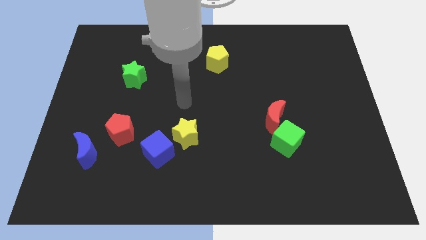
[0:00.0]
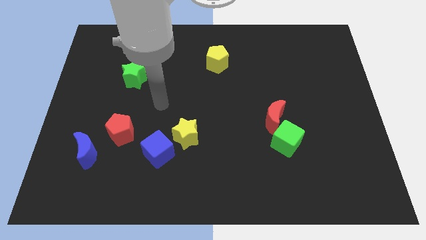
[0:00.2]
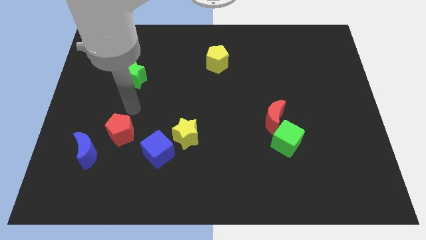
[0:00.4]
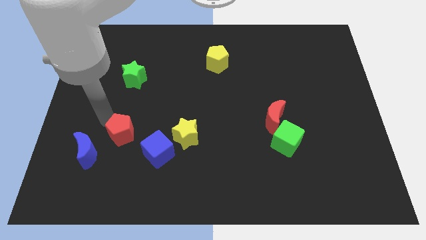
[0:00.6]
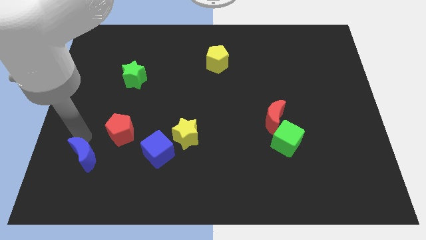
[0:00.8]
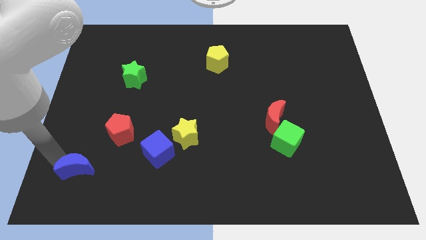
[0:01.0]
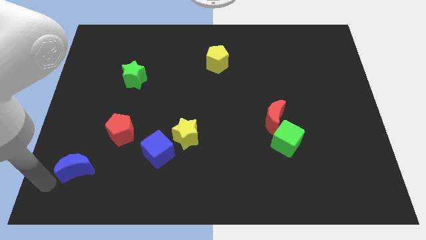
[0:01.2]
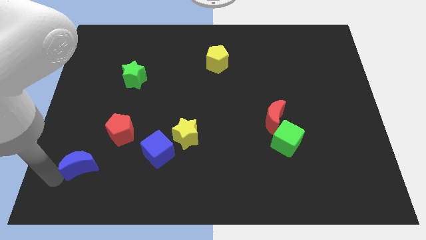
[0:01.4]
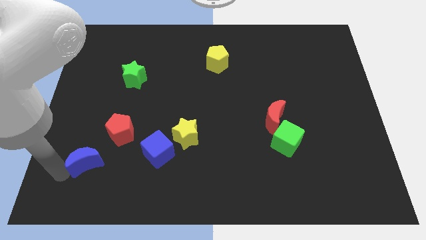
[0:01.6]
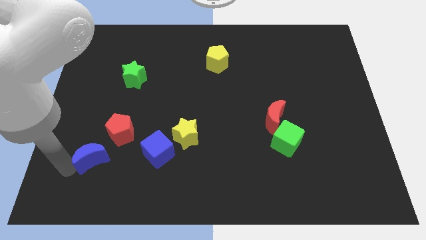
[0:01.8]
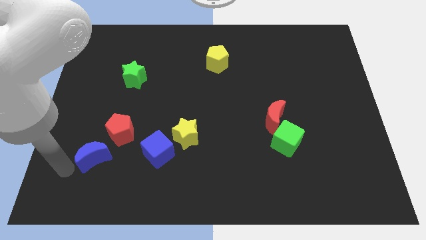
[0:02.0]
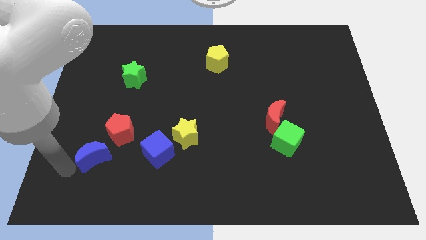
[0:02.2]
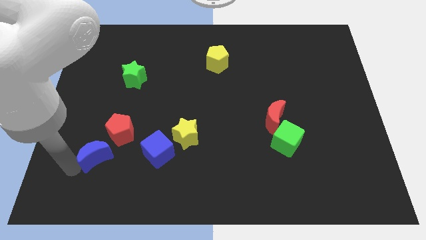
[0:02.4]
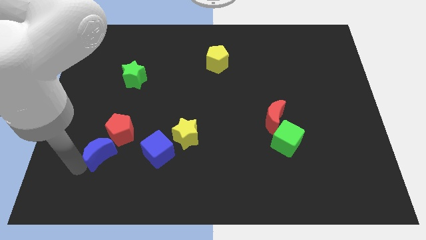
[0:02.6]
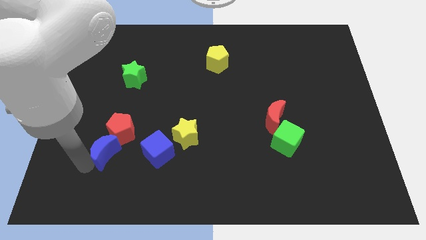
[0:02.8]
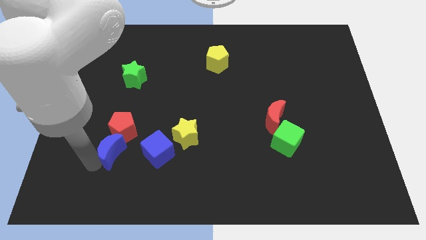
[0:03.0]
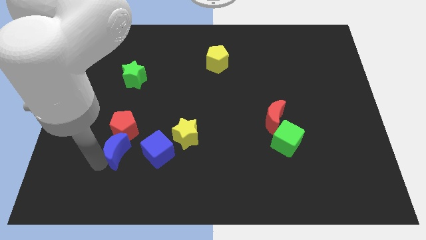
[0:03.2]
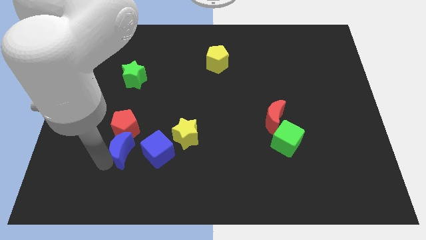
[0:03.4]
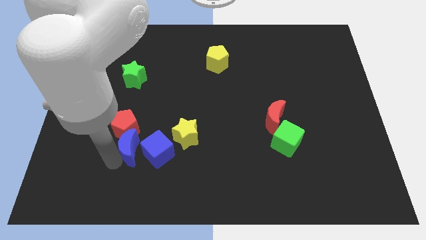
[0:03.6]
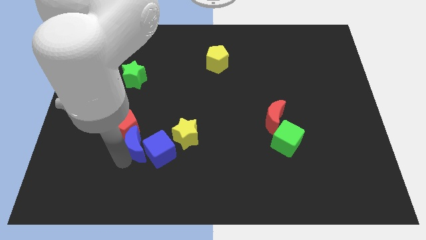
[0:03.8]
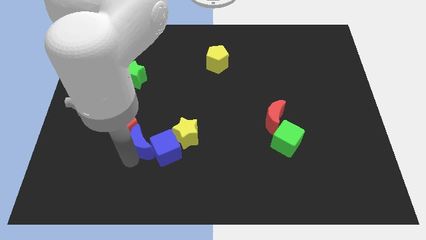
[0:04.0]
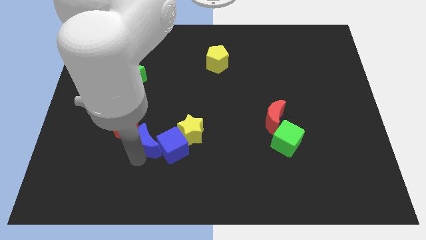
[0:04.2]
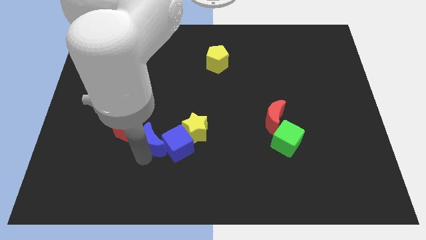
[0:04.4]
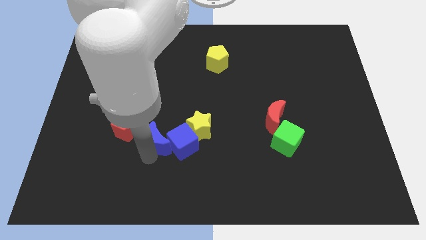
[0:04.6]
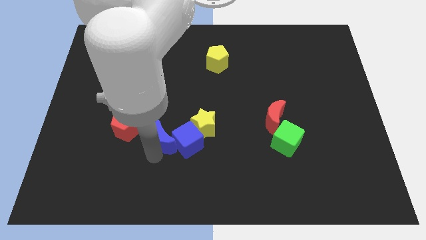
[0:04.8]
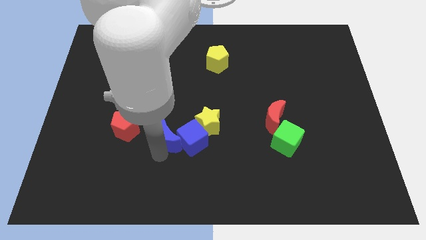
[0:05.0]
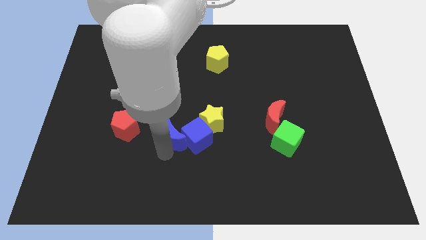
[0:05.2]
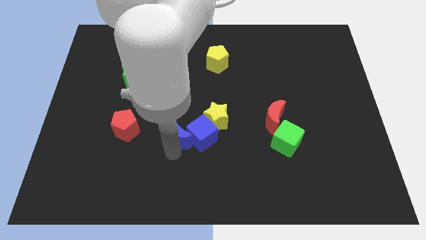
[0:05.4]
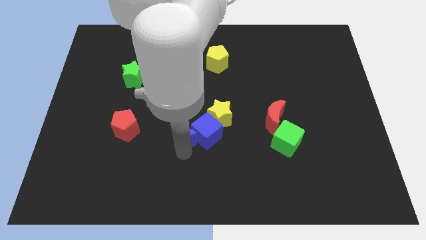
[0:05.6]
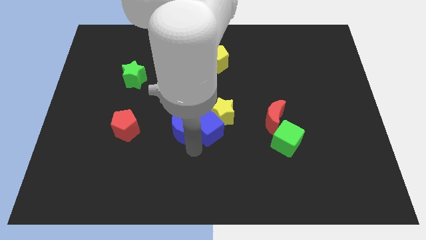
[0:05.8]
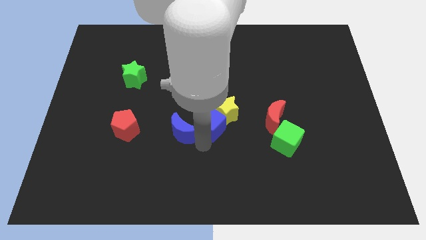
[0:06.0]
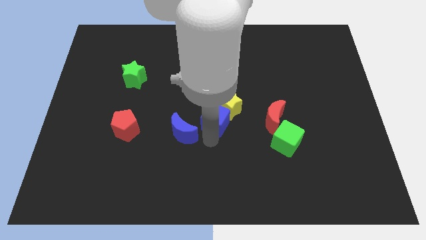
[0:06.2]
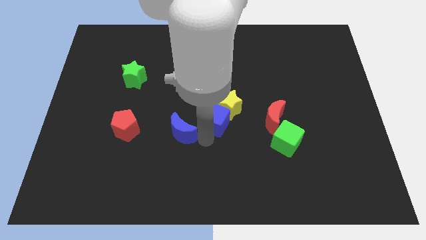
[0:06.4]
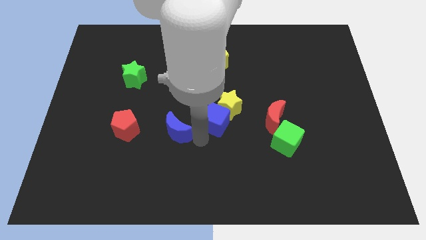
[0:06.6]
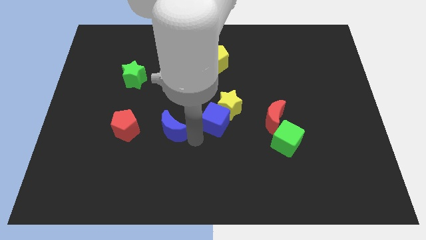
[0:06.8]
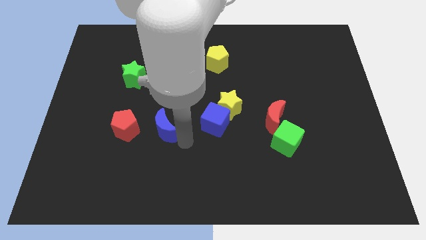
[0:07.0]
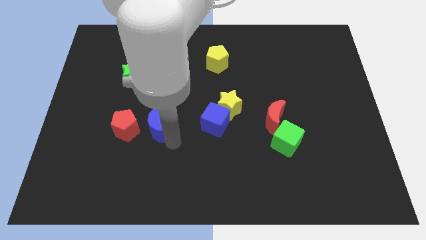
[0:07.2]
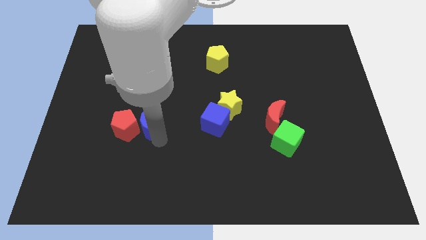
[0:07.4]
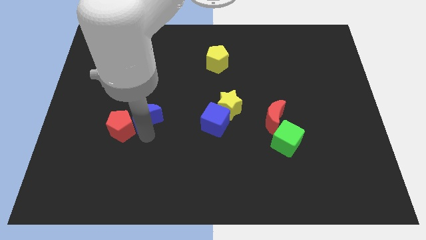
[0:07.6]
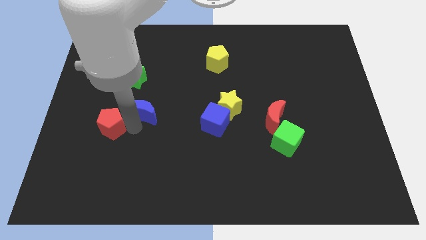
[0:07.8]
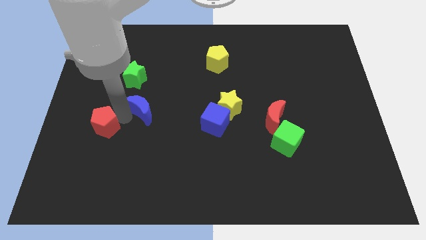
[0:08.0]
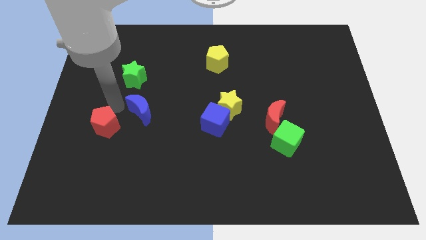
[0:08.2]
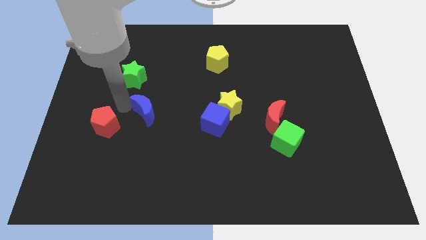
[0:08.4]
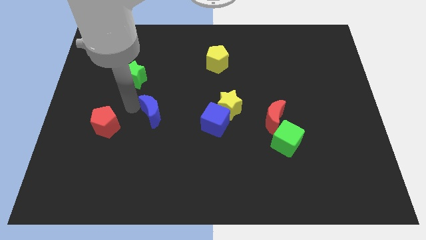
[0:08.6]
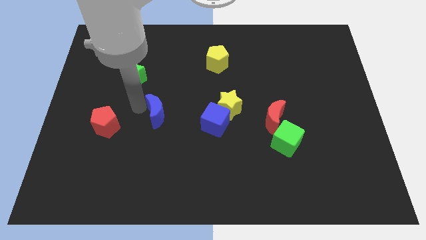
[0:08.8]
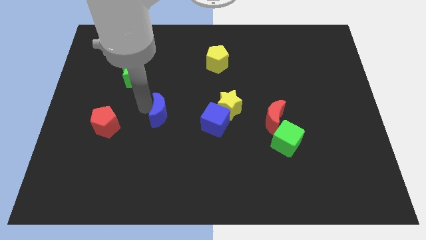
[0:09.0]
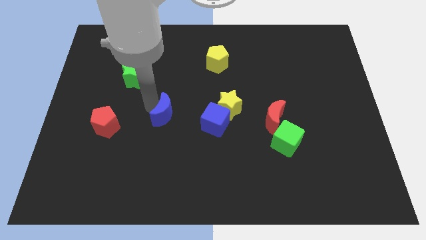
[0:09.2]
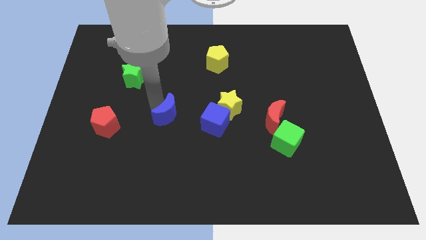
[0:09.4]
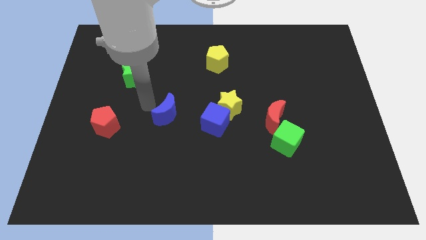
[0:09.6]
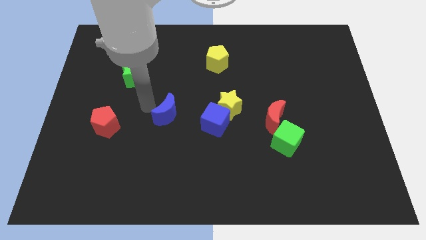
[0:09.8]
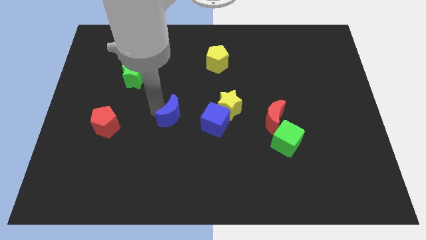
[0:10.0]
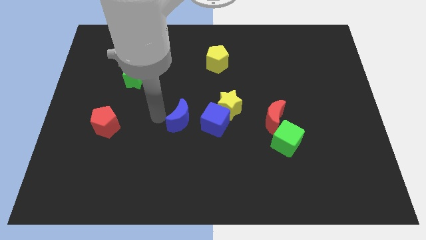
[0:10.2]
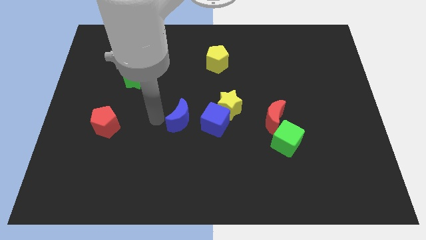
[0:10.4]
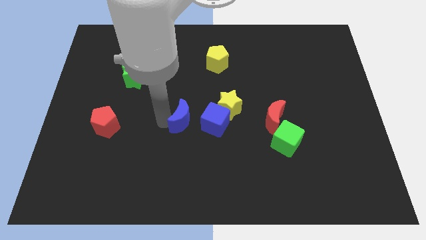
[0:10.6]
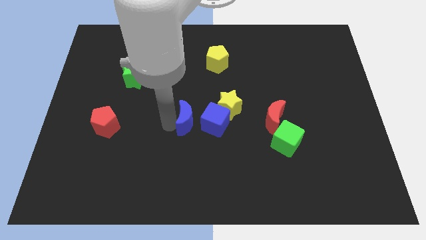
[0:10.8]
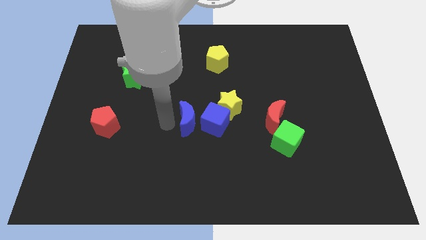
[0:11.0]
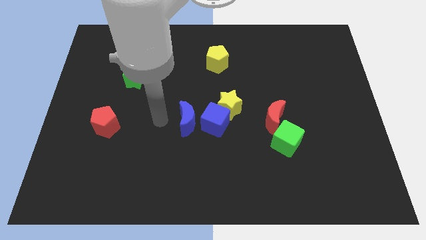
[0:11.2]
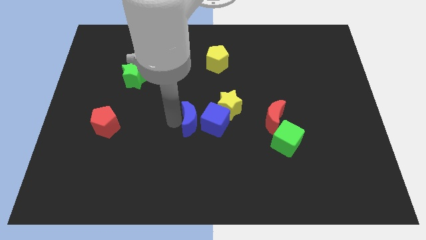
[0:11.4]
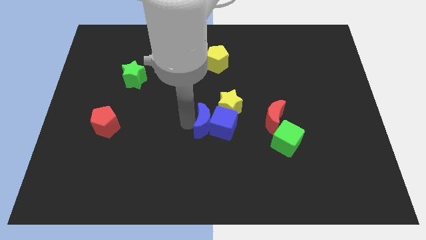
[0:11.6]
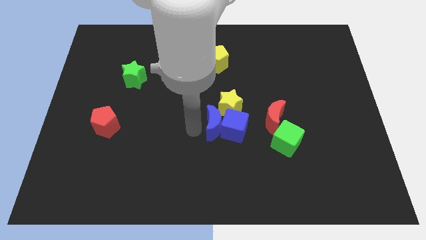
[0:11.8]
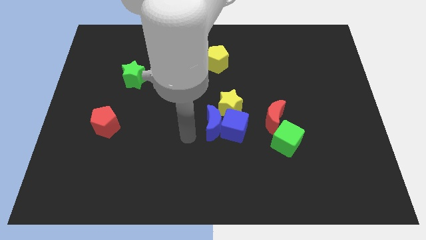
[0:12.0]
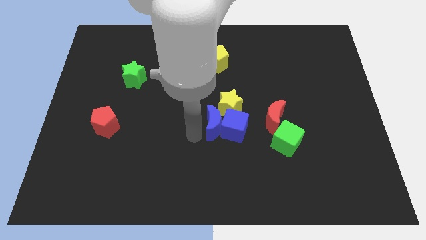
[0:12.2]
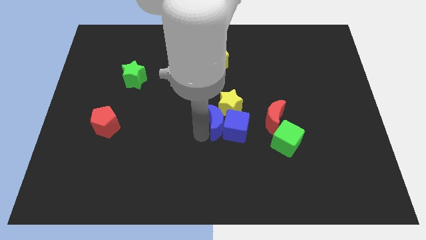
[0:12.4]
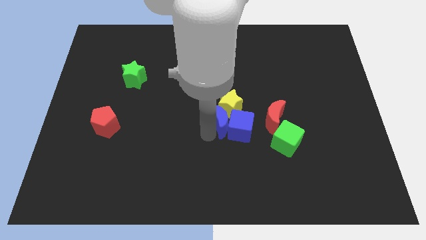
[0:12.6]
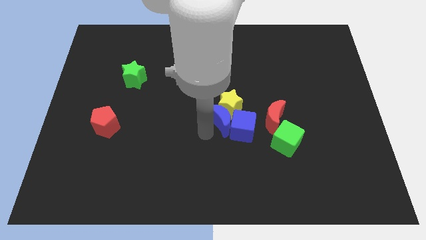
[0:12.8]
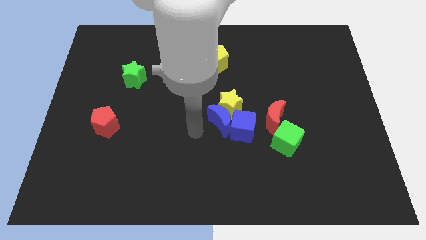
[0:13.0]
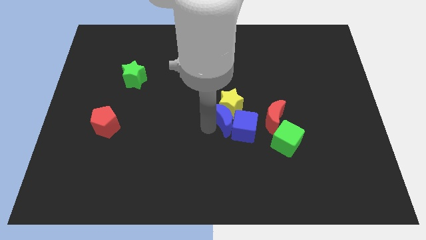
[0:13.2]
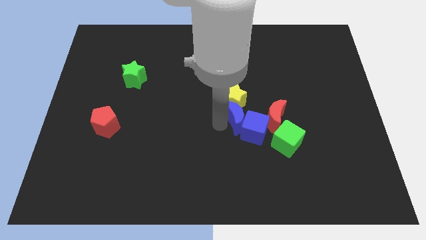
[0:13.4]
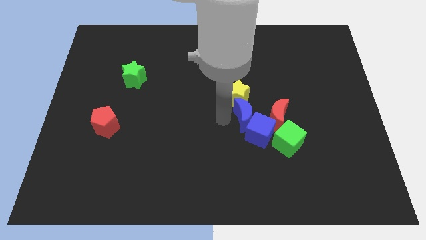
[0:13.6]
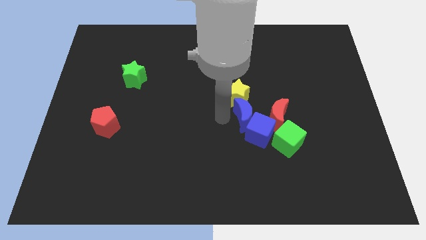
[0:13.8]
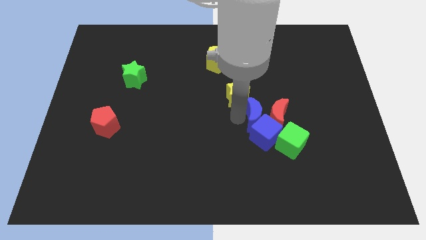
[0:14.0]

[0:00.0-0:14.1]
move the blue moon next to the red moon
